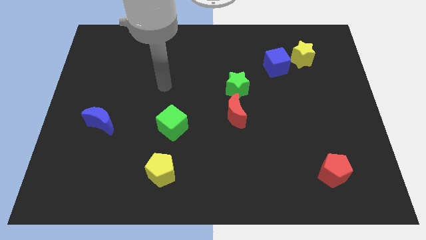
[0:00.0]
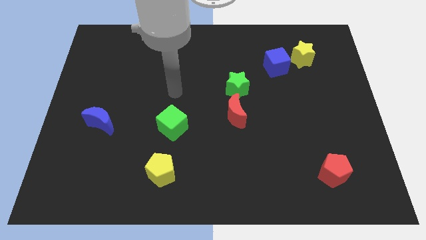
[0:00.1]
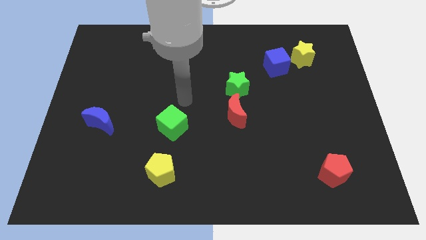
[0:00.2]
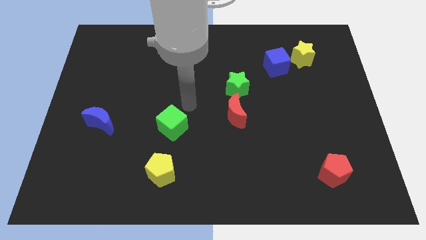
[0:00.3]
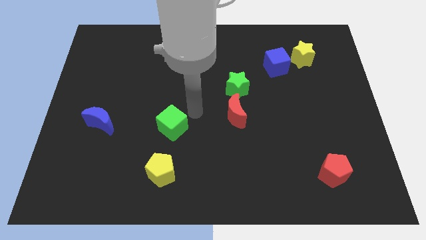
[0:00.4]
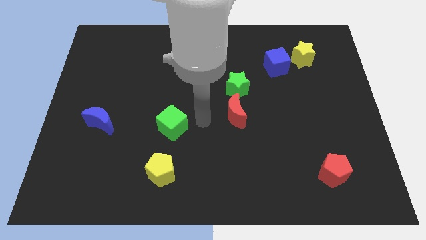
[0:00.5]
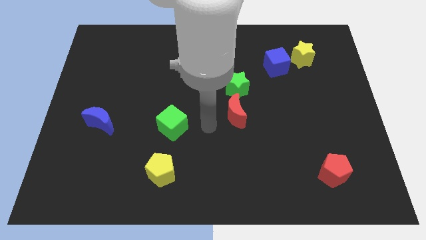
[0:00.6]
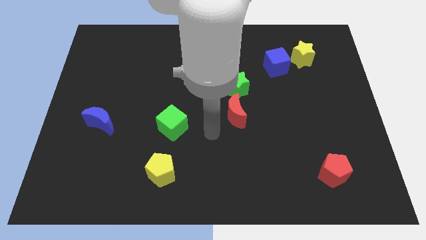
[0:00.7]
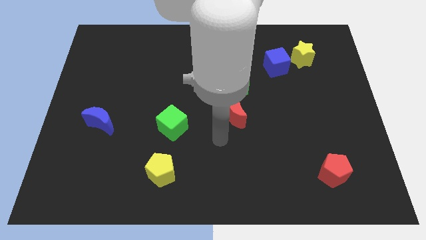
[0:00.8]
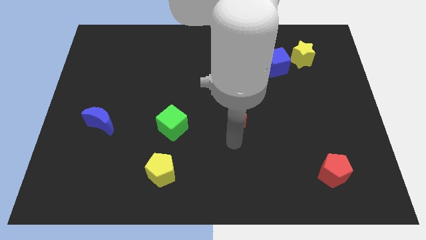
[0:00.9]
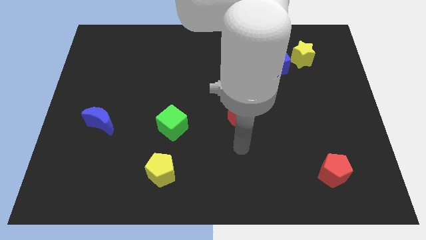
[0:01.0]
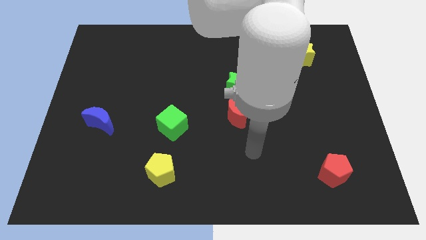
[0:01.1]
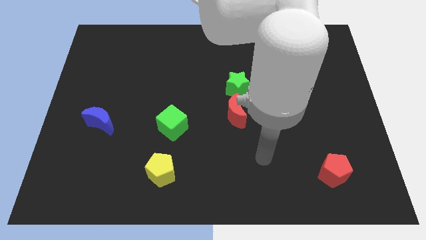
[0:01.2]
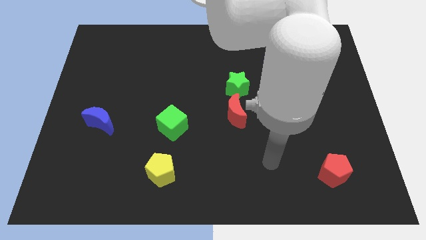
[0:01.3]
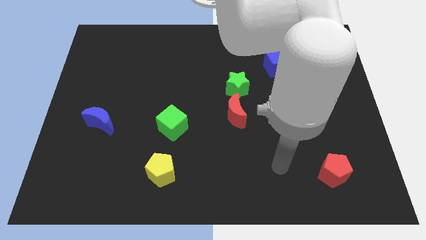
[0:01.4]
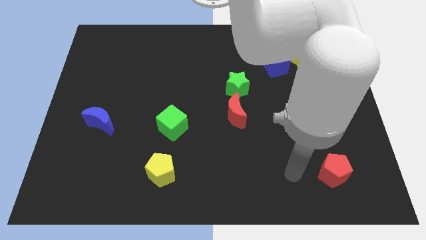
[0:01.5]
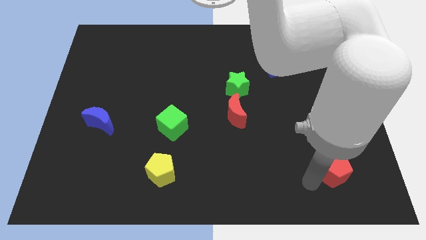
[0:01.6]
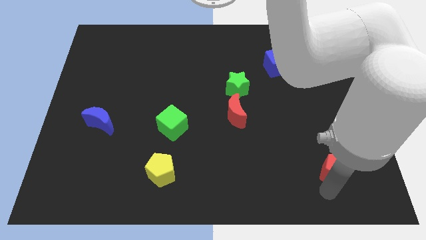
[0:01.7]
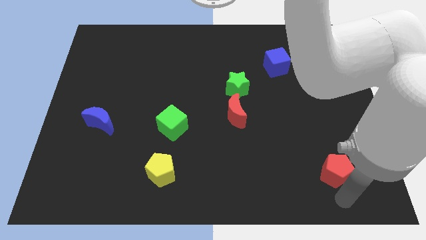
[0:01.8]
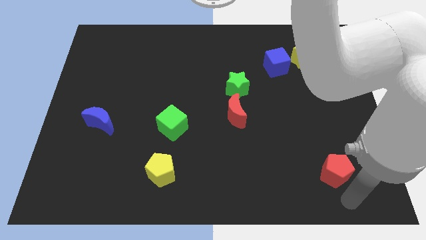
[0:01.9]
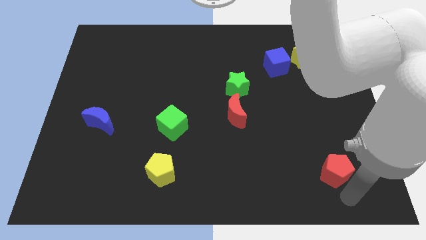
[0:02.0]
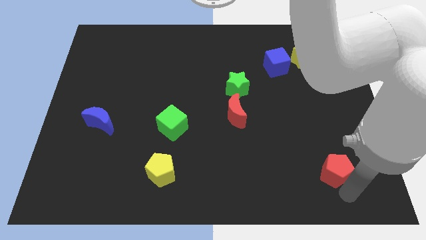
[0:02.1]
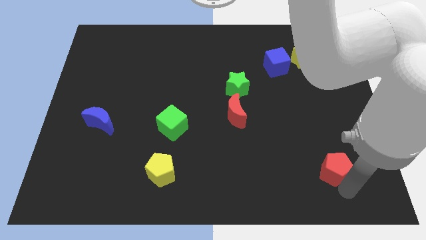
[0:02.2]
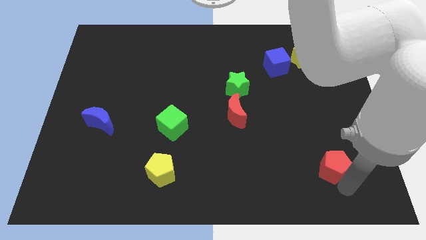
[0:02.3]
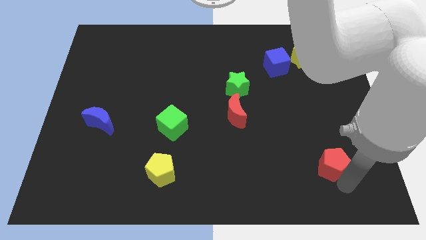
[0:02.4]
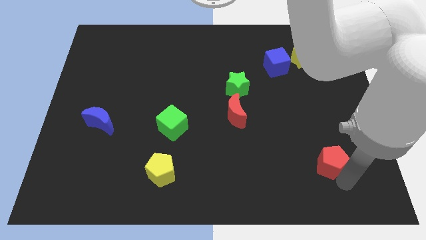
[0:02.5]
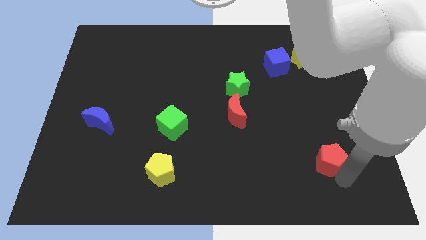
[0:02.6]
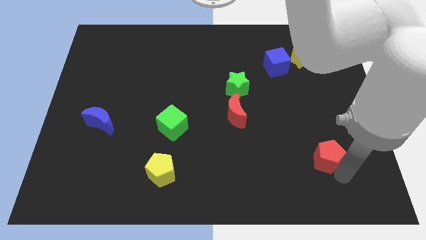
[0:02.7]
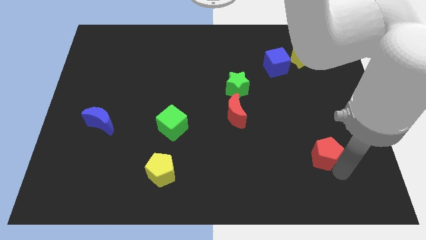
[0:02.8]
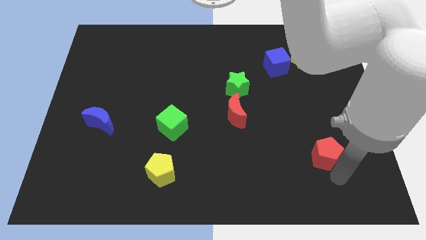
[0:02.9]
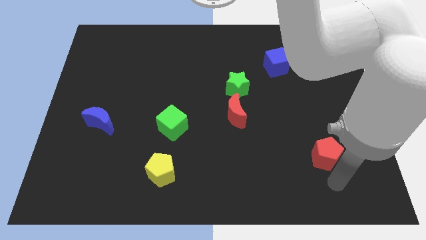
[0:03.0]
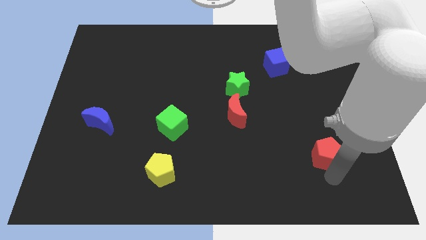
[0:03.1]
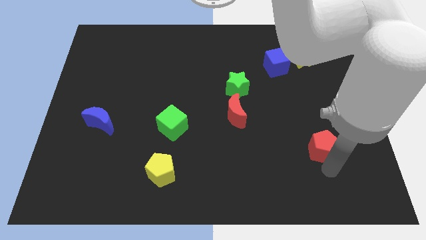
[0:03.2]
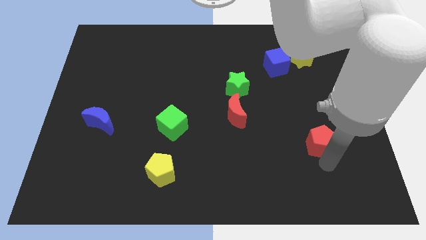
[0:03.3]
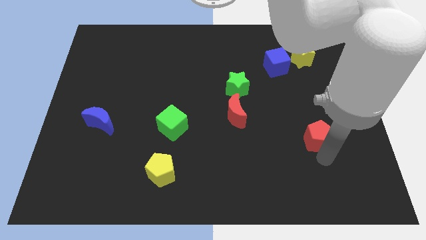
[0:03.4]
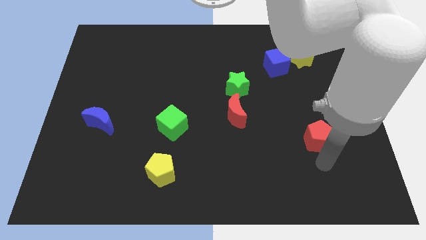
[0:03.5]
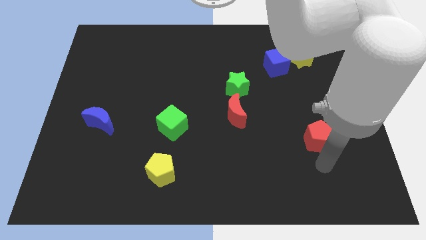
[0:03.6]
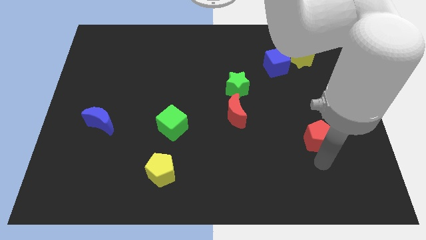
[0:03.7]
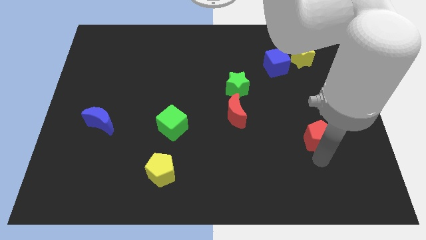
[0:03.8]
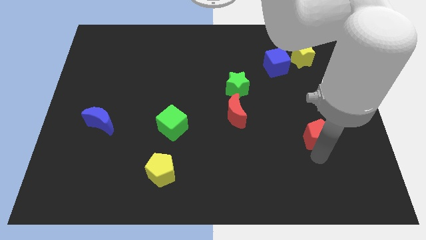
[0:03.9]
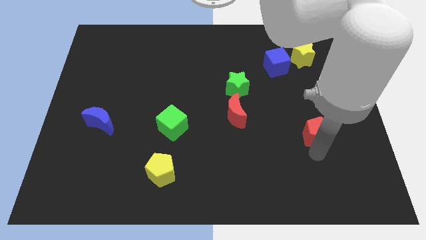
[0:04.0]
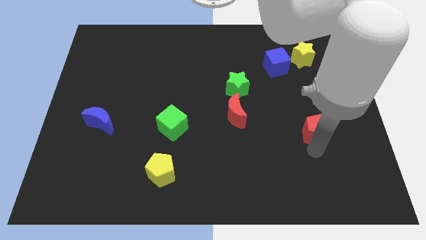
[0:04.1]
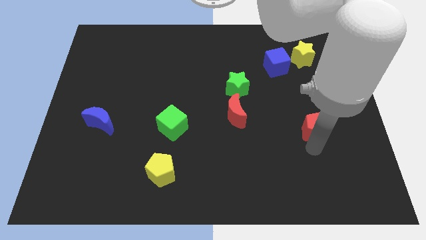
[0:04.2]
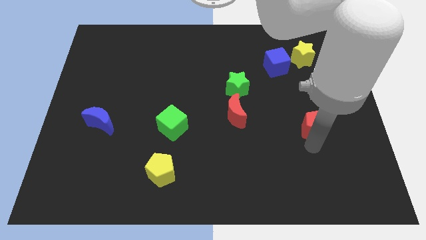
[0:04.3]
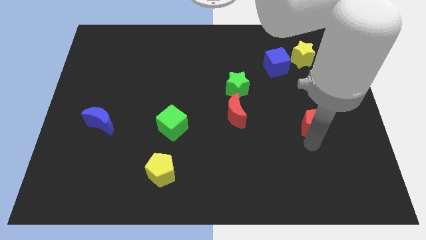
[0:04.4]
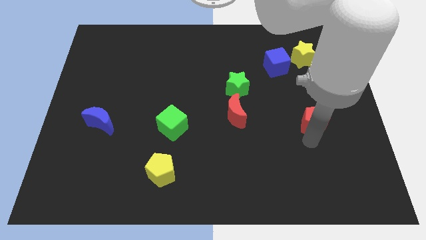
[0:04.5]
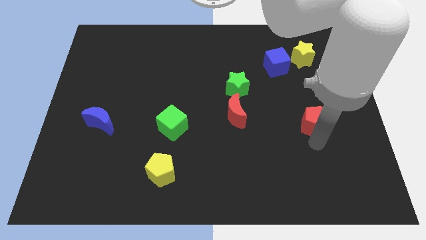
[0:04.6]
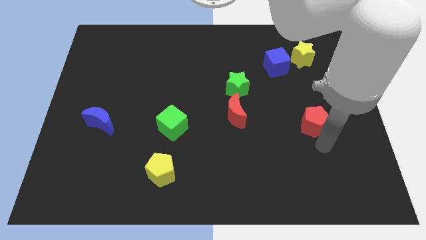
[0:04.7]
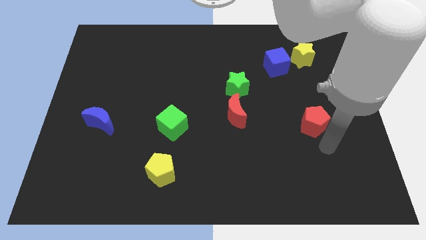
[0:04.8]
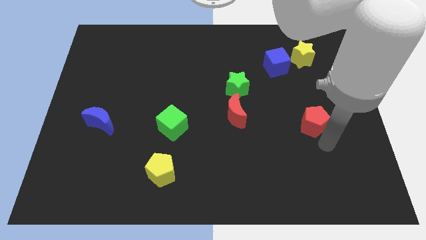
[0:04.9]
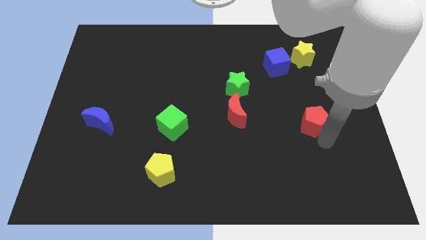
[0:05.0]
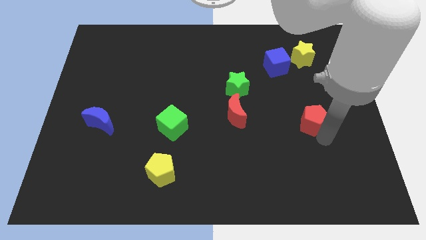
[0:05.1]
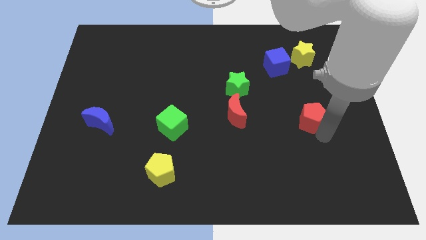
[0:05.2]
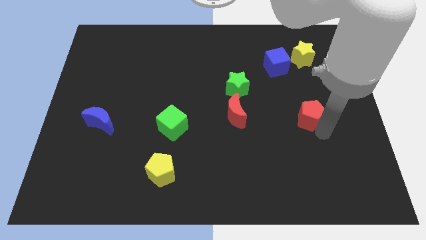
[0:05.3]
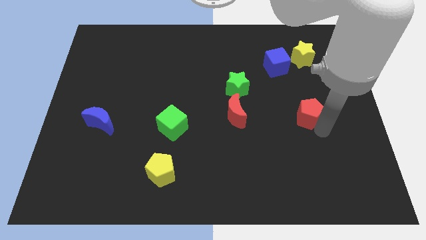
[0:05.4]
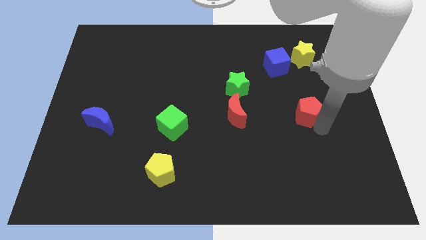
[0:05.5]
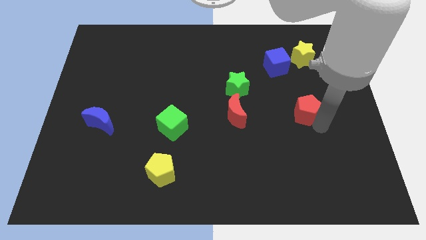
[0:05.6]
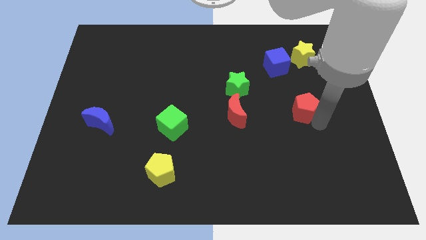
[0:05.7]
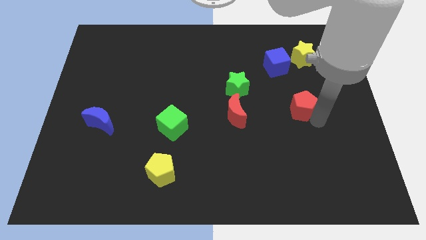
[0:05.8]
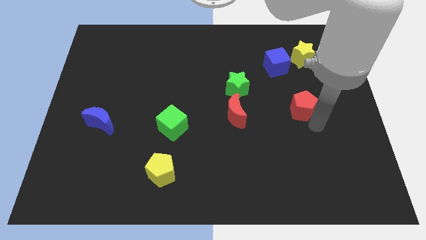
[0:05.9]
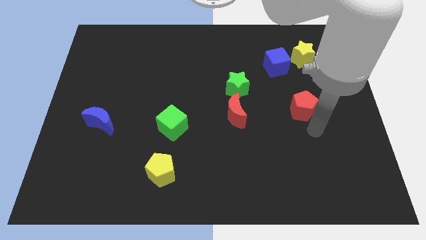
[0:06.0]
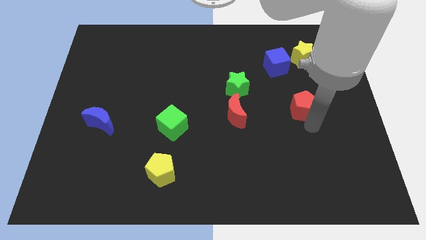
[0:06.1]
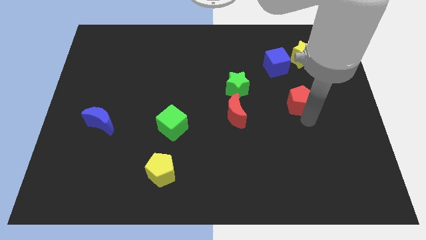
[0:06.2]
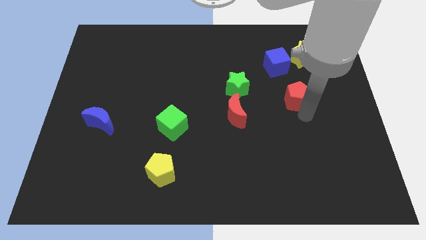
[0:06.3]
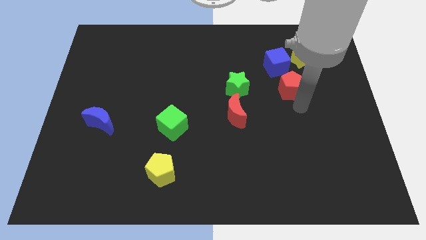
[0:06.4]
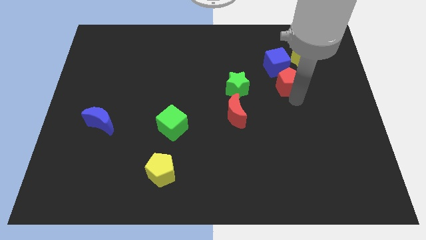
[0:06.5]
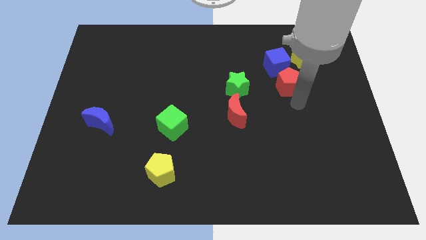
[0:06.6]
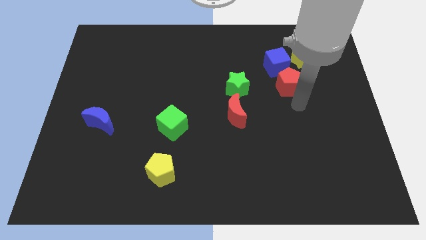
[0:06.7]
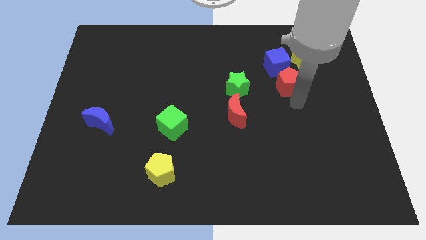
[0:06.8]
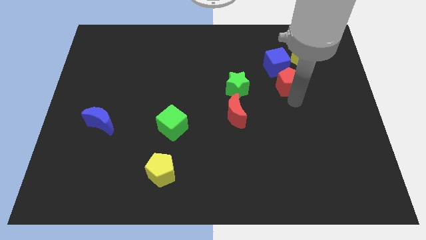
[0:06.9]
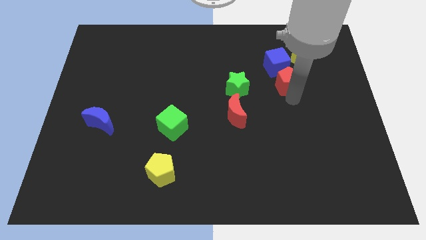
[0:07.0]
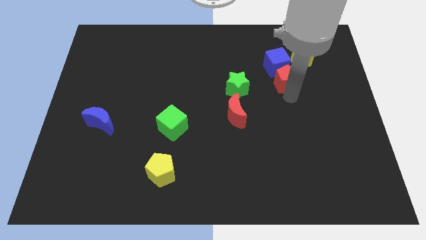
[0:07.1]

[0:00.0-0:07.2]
push the red pentagon towards the blue cube
